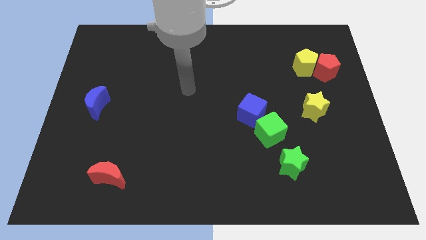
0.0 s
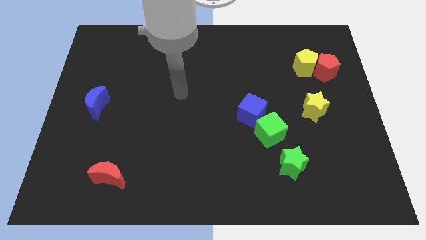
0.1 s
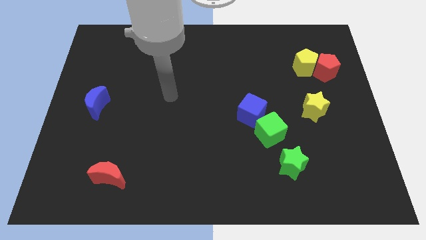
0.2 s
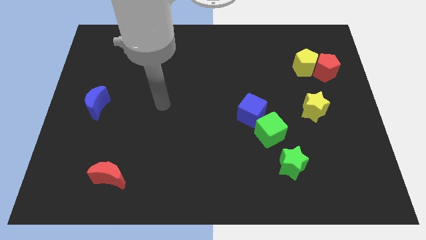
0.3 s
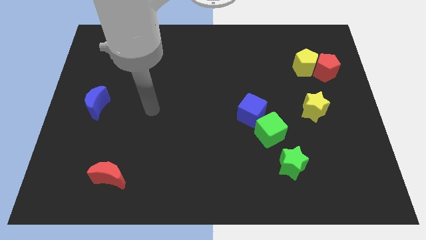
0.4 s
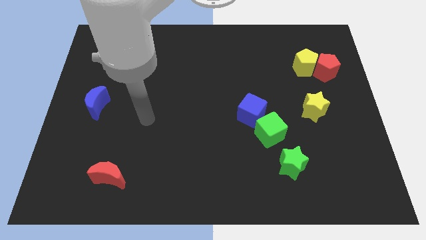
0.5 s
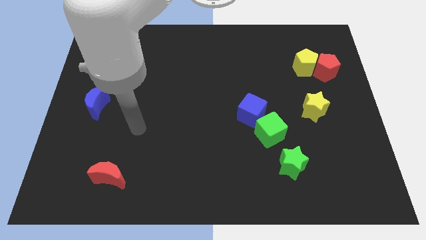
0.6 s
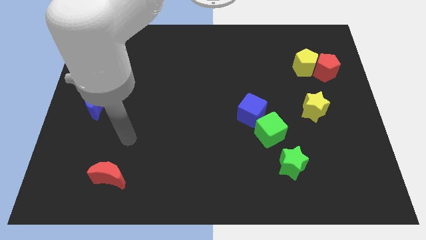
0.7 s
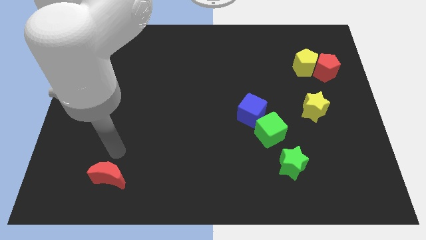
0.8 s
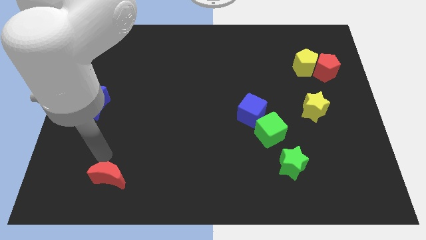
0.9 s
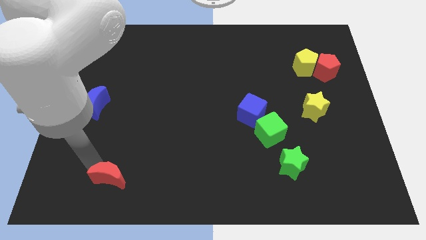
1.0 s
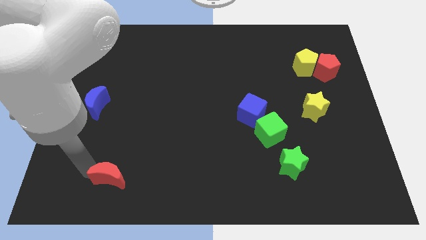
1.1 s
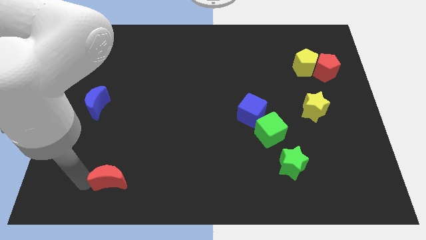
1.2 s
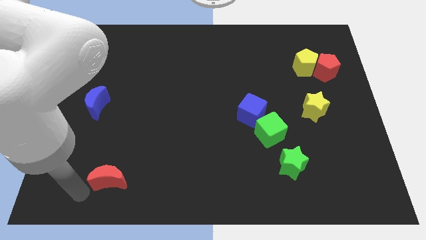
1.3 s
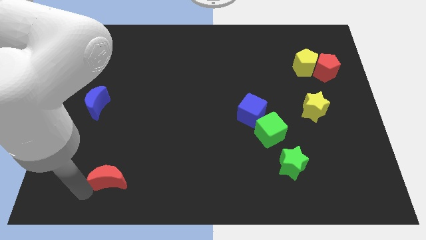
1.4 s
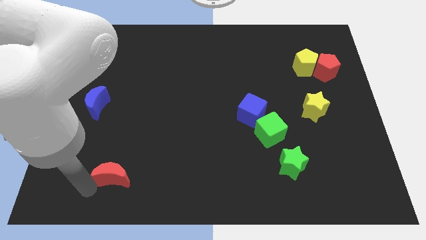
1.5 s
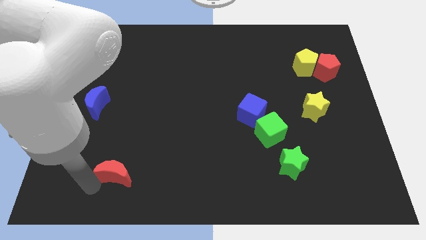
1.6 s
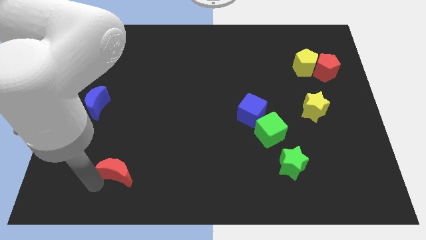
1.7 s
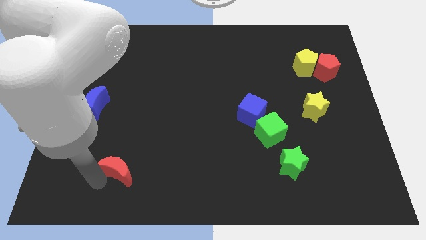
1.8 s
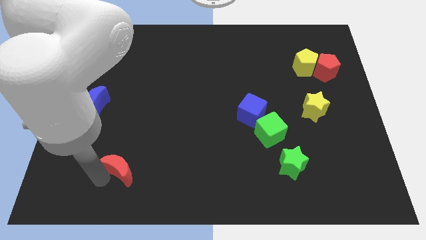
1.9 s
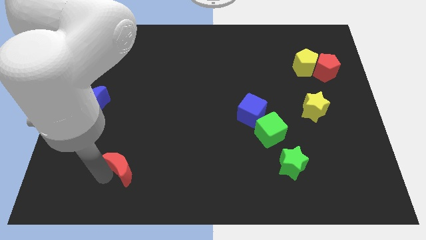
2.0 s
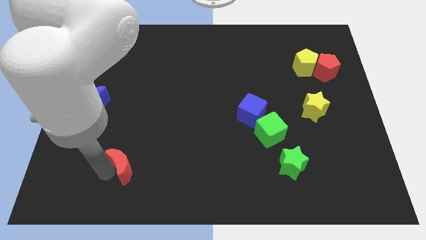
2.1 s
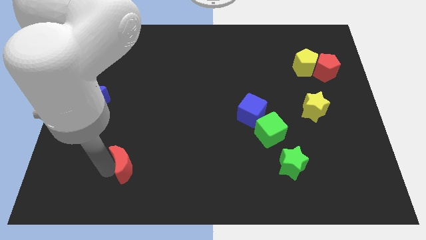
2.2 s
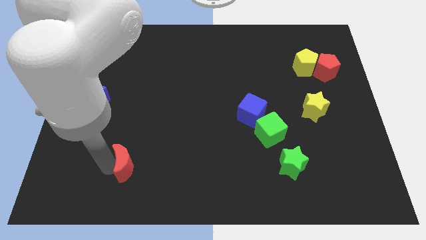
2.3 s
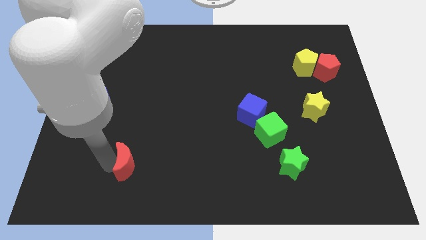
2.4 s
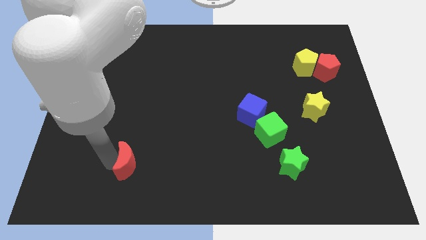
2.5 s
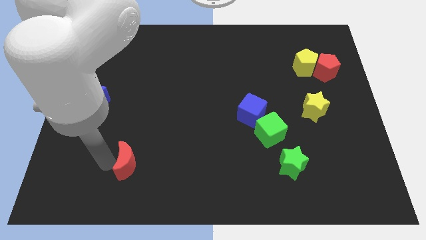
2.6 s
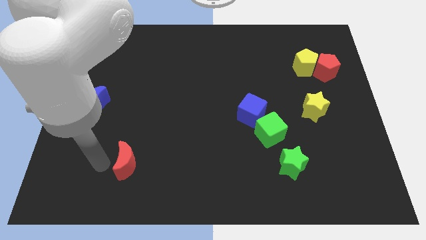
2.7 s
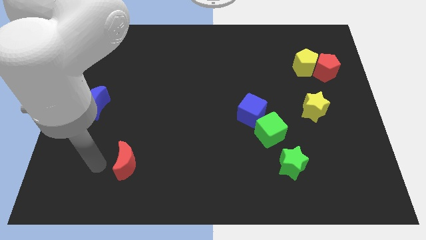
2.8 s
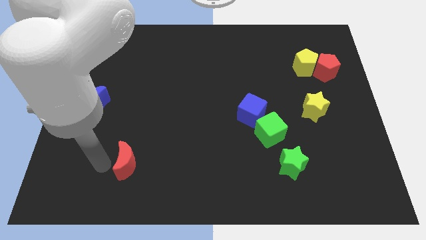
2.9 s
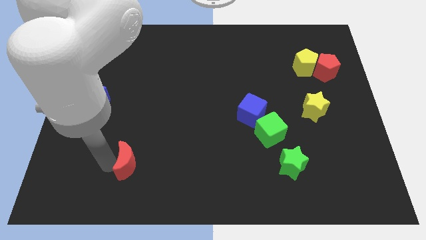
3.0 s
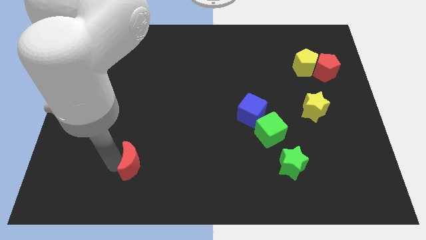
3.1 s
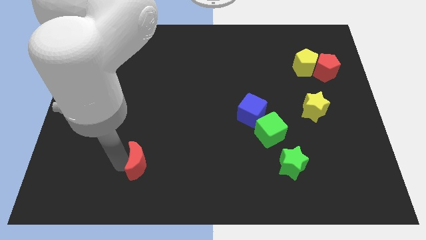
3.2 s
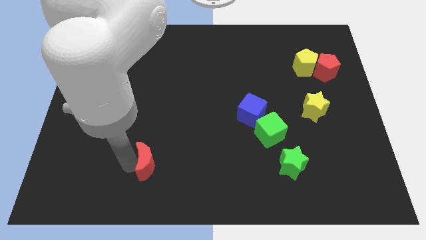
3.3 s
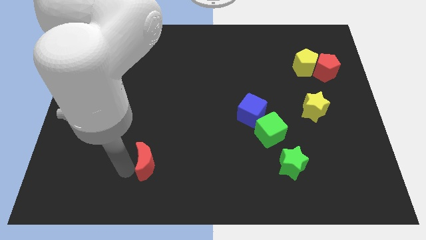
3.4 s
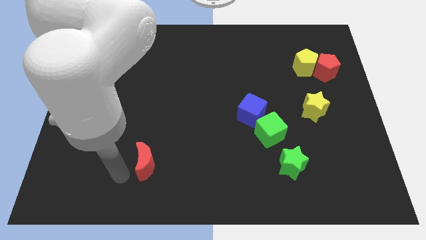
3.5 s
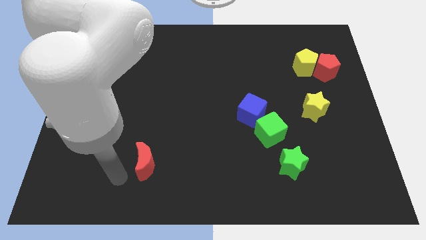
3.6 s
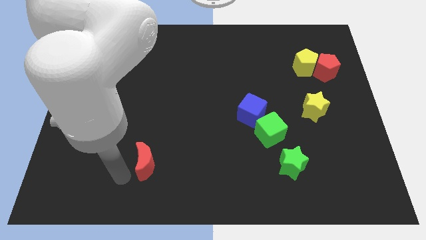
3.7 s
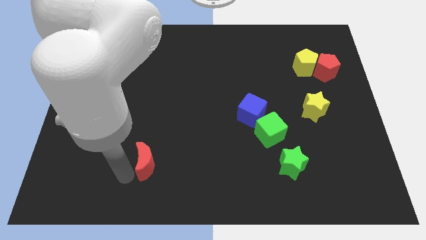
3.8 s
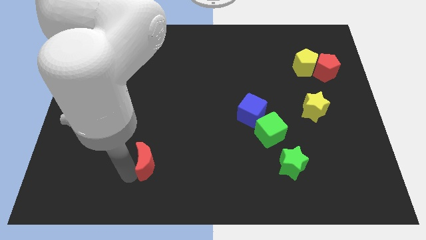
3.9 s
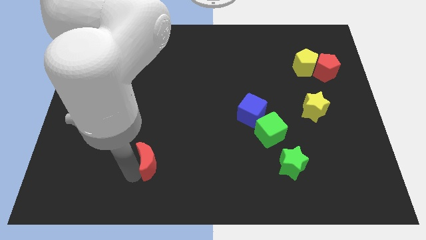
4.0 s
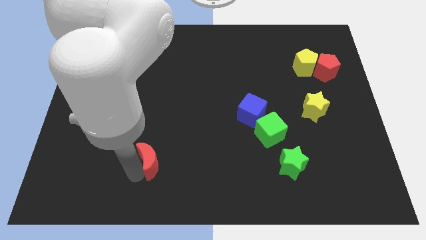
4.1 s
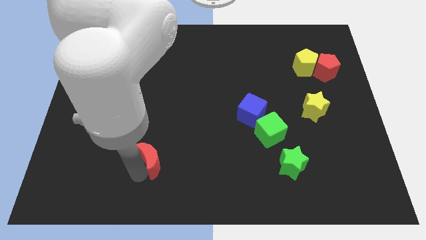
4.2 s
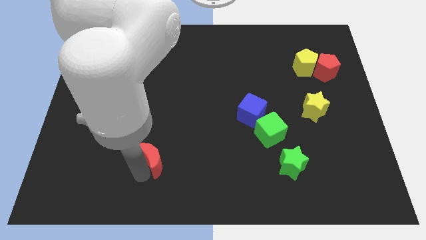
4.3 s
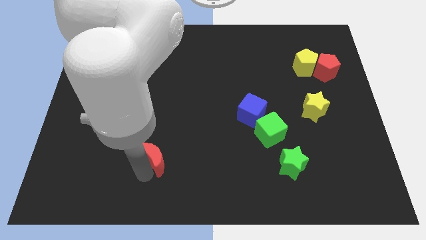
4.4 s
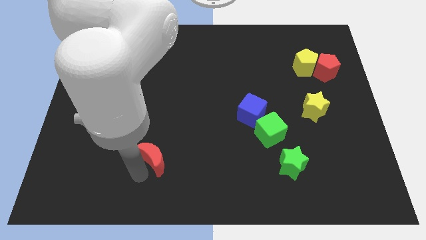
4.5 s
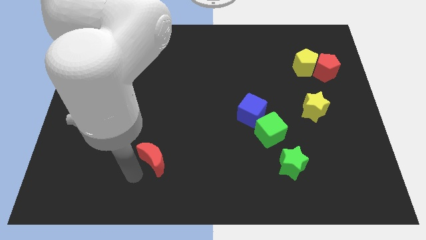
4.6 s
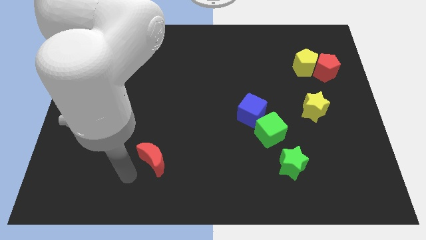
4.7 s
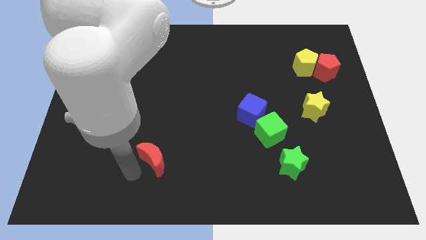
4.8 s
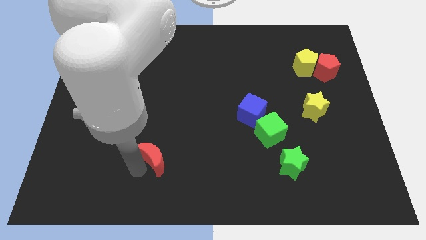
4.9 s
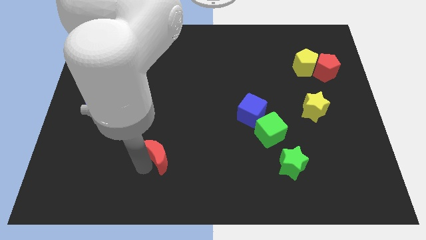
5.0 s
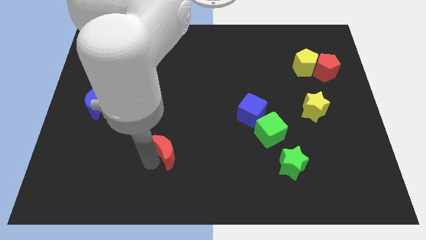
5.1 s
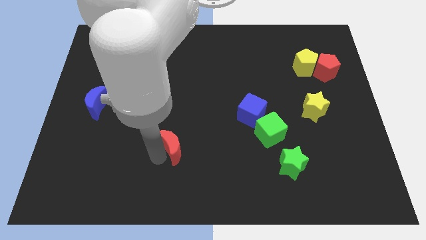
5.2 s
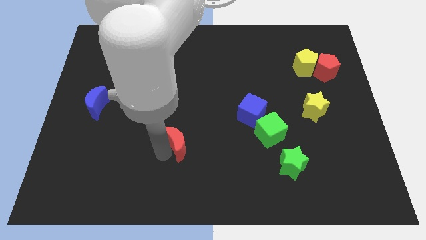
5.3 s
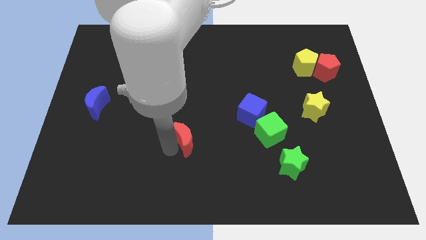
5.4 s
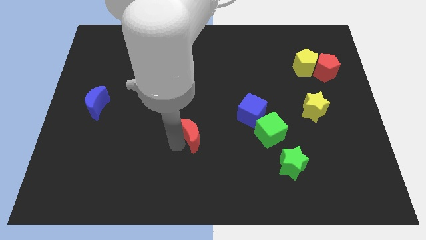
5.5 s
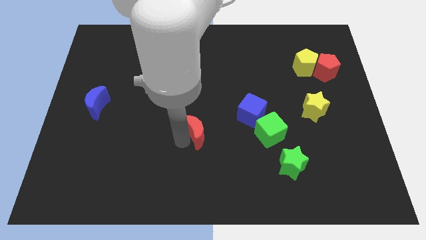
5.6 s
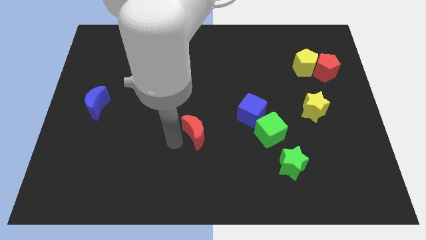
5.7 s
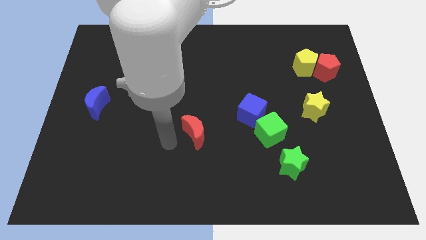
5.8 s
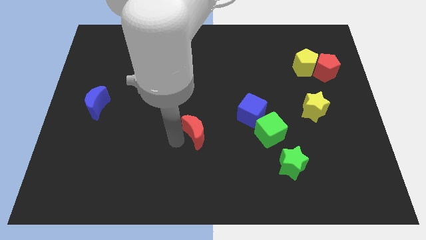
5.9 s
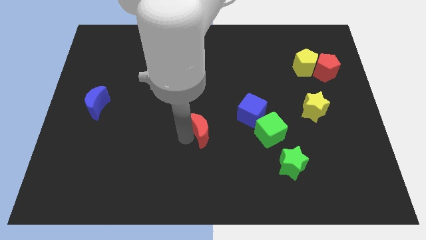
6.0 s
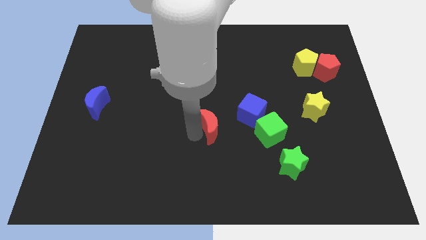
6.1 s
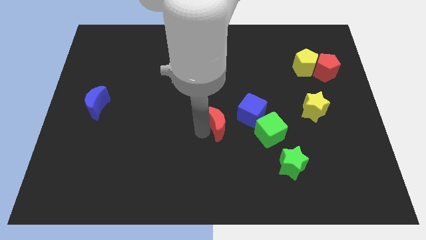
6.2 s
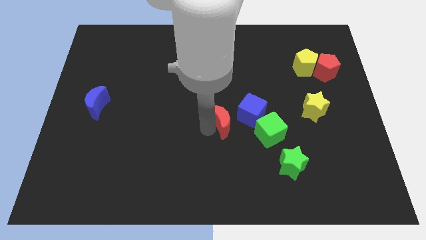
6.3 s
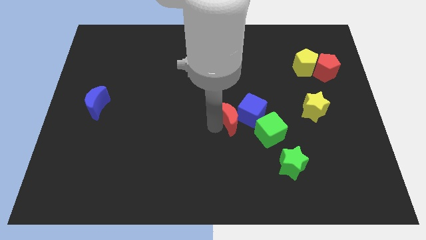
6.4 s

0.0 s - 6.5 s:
push the red moon next to the blue cube
